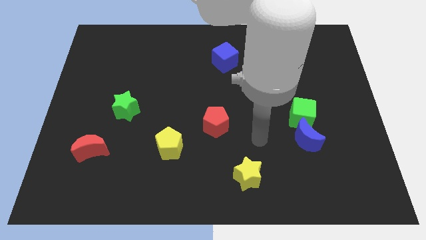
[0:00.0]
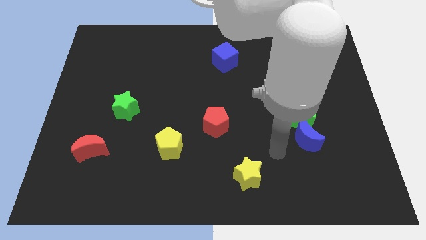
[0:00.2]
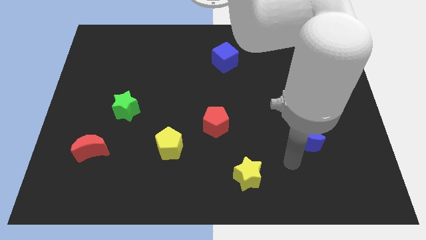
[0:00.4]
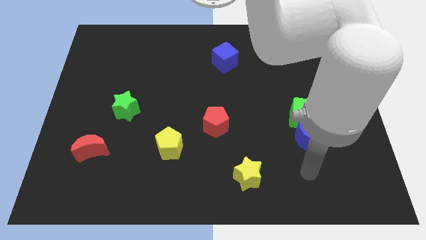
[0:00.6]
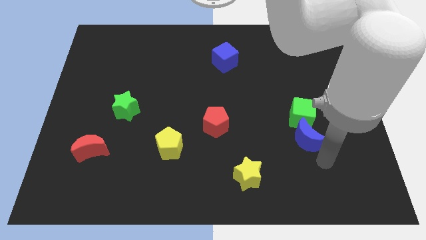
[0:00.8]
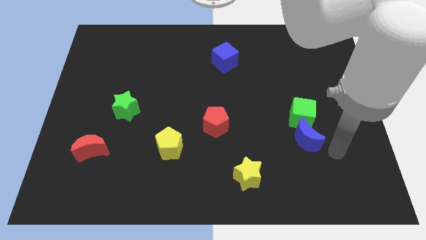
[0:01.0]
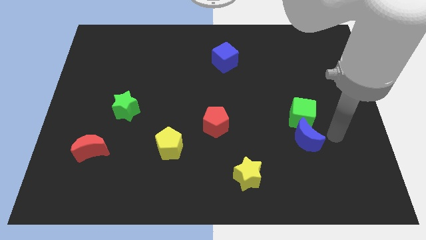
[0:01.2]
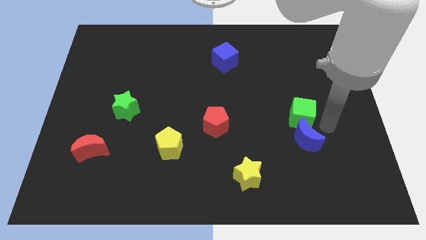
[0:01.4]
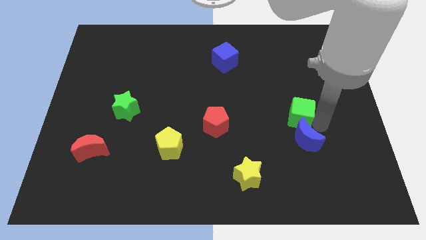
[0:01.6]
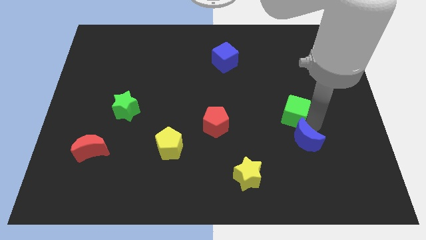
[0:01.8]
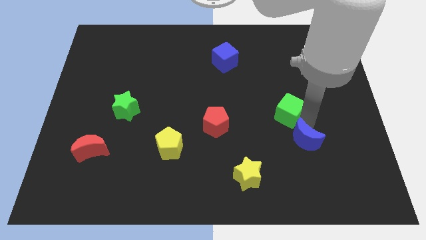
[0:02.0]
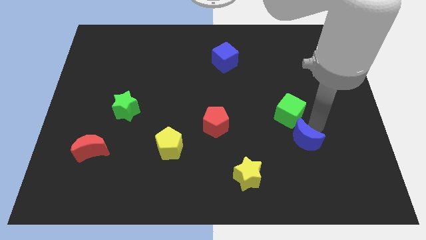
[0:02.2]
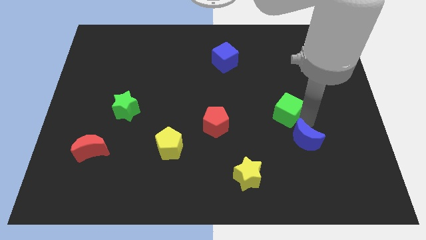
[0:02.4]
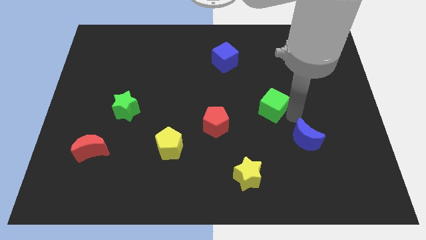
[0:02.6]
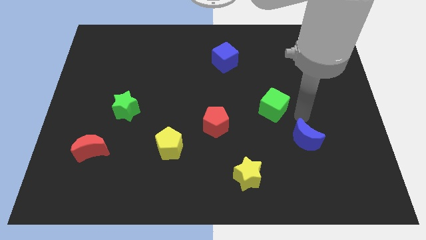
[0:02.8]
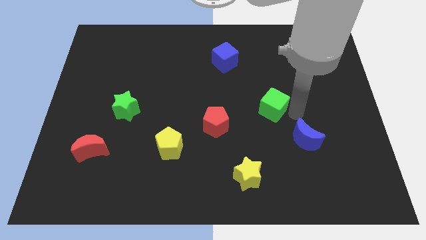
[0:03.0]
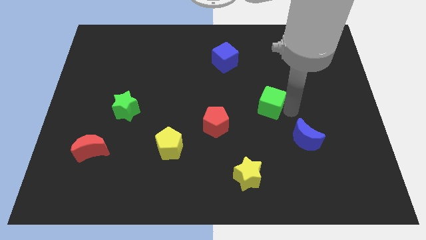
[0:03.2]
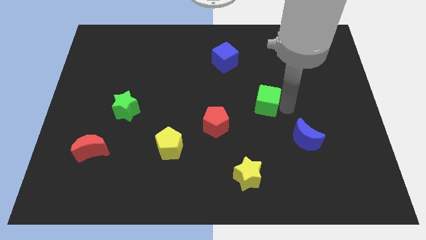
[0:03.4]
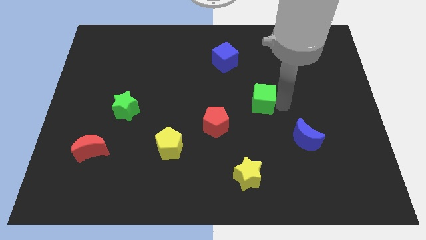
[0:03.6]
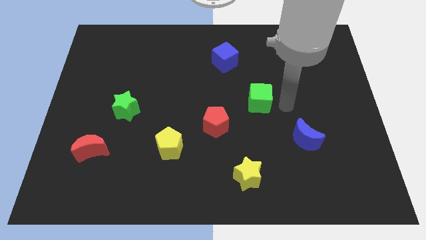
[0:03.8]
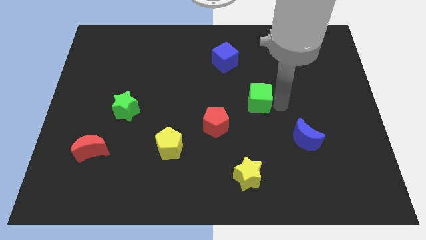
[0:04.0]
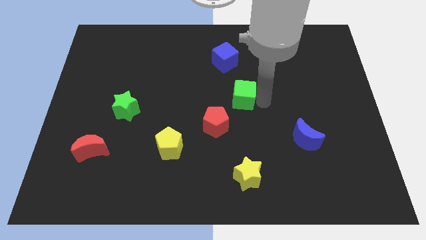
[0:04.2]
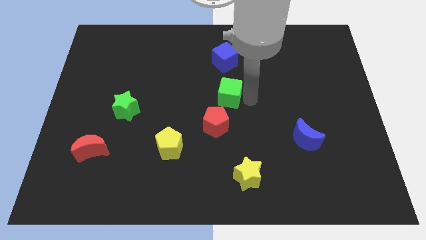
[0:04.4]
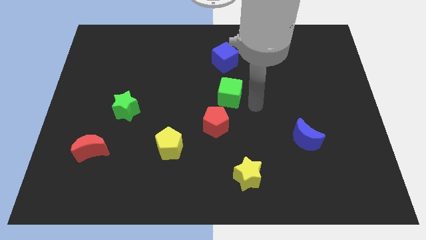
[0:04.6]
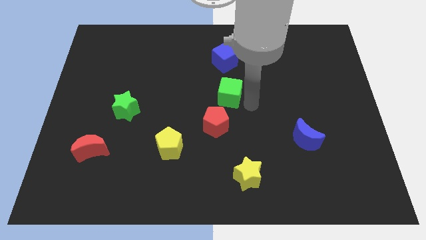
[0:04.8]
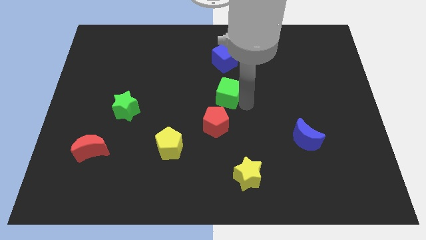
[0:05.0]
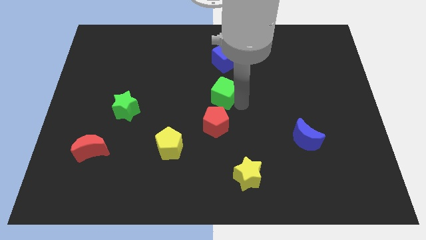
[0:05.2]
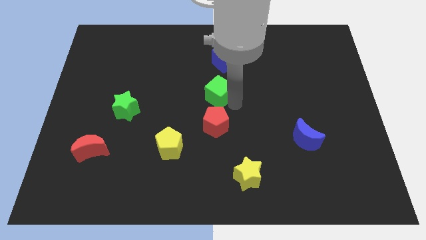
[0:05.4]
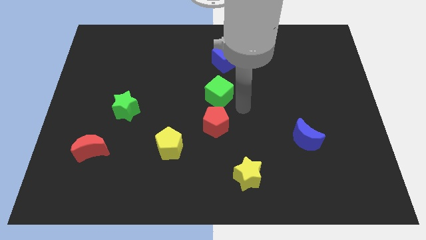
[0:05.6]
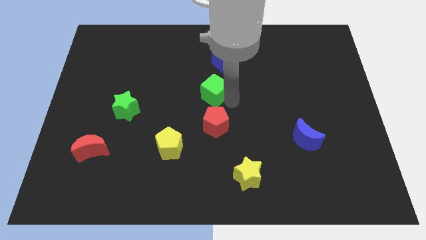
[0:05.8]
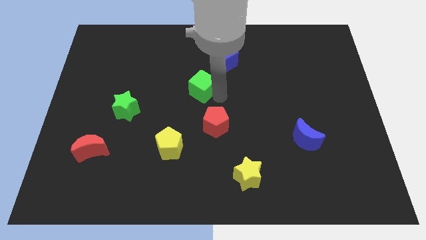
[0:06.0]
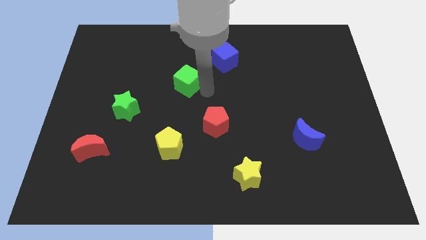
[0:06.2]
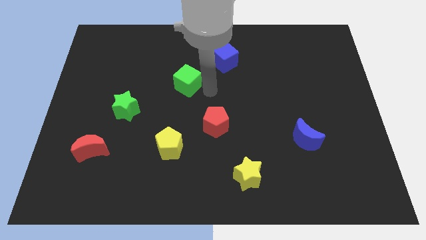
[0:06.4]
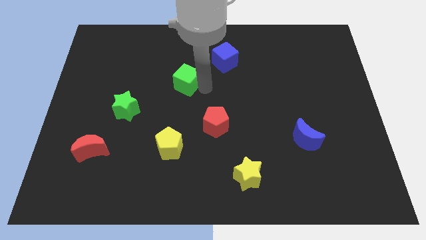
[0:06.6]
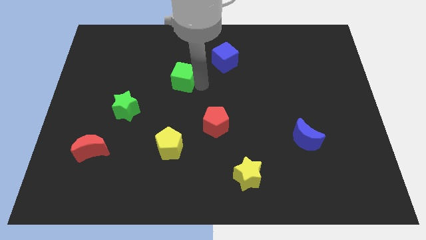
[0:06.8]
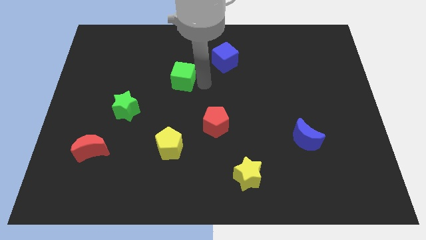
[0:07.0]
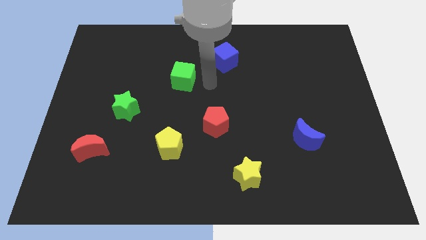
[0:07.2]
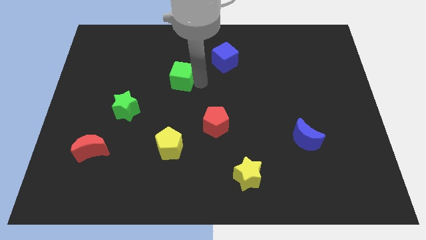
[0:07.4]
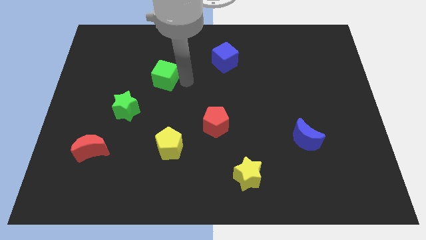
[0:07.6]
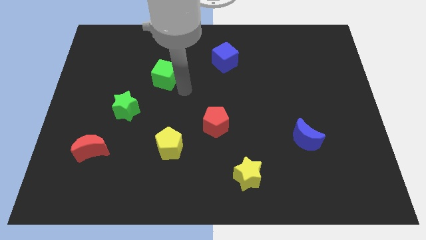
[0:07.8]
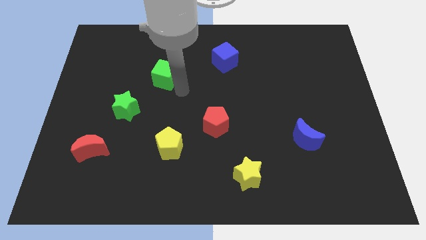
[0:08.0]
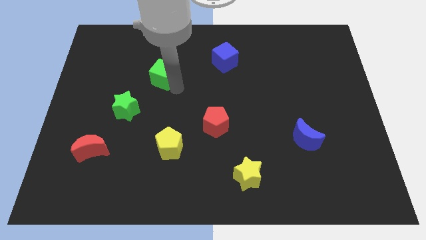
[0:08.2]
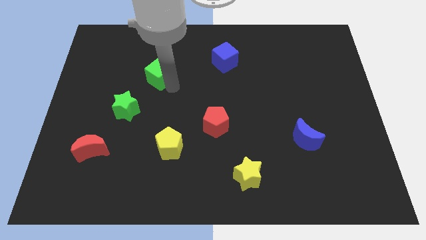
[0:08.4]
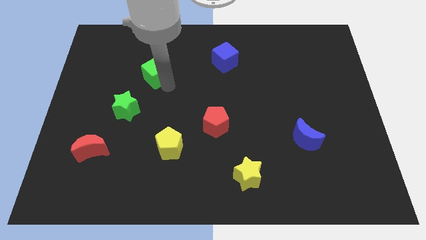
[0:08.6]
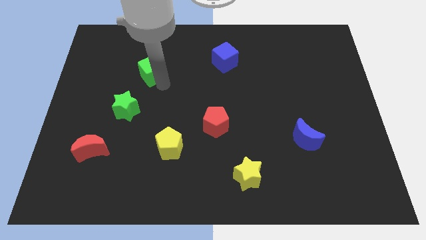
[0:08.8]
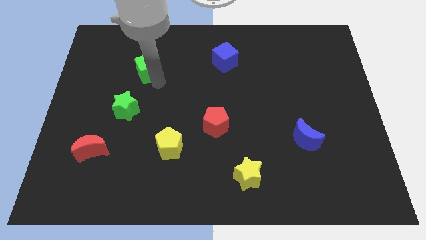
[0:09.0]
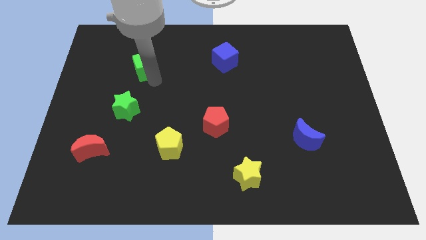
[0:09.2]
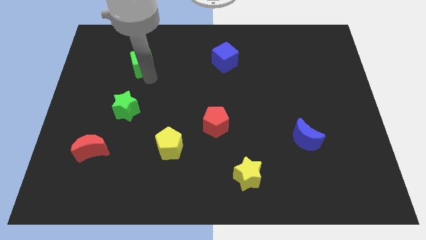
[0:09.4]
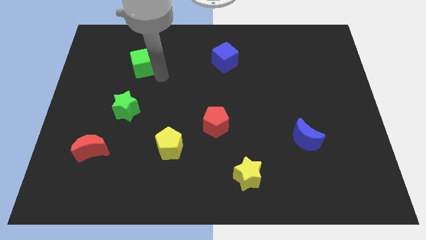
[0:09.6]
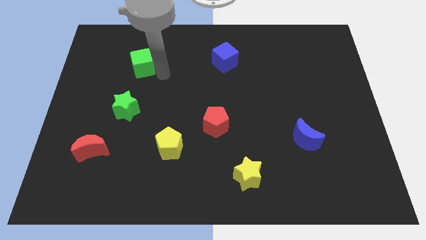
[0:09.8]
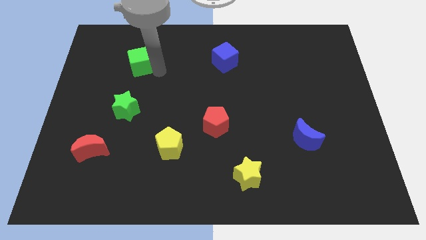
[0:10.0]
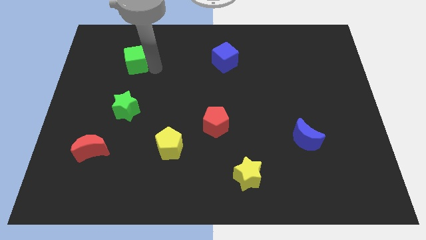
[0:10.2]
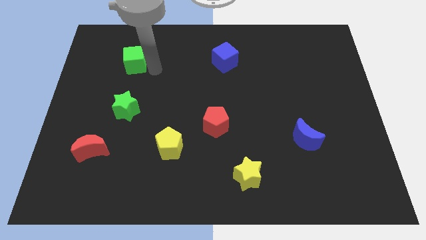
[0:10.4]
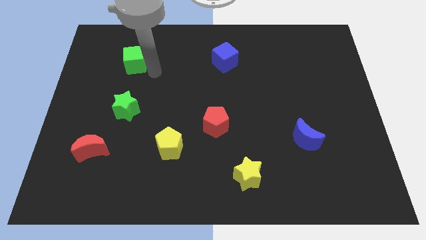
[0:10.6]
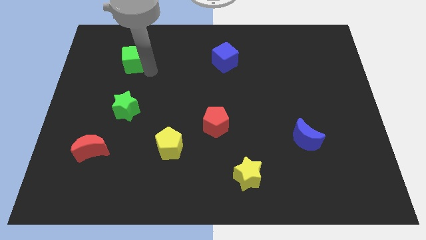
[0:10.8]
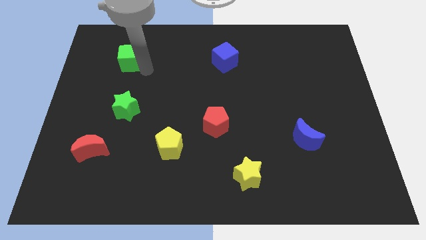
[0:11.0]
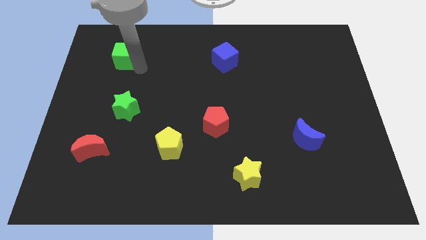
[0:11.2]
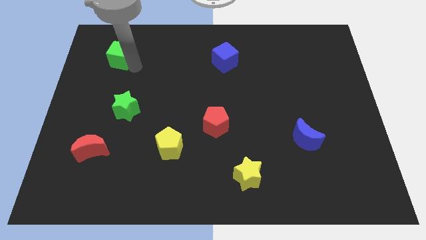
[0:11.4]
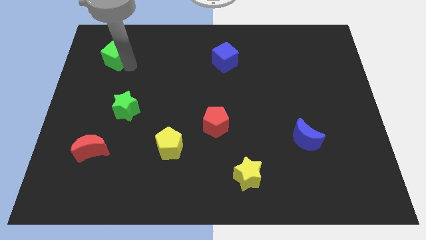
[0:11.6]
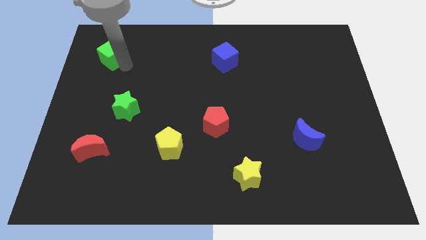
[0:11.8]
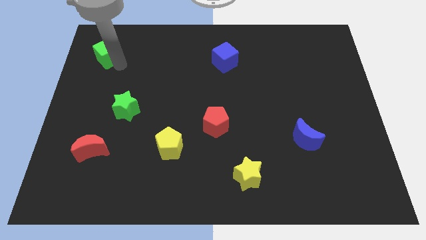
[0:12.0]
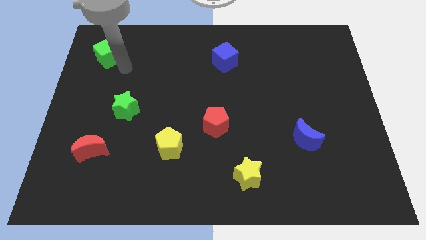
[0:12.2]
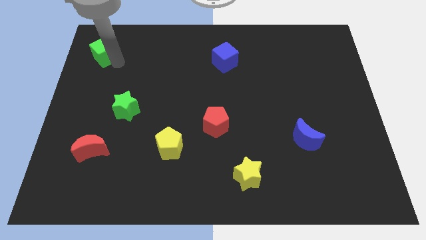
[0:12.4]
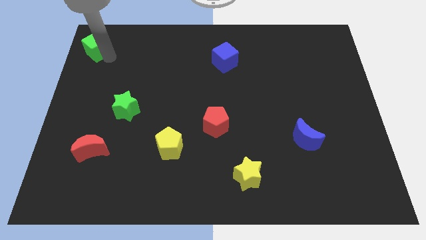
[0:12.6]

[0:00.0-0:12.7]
put the green cube to the top left corner
